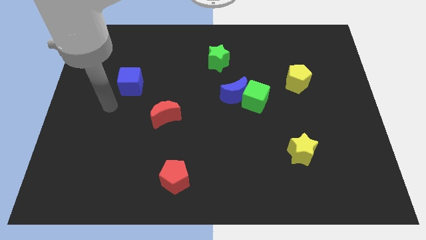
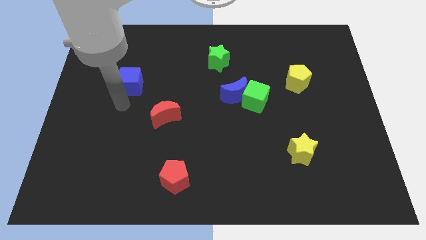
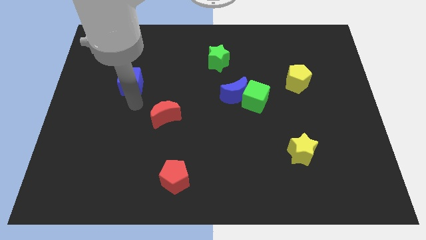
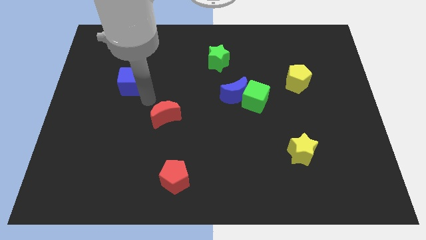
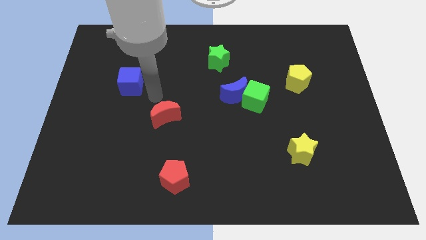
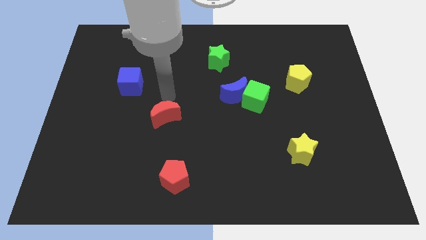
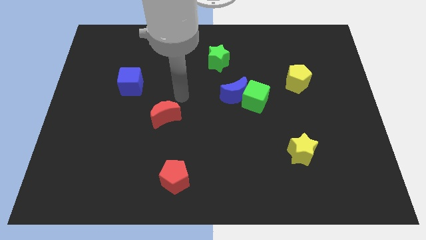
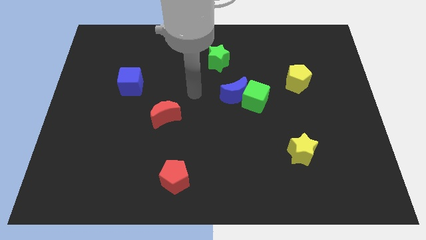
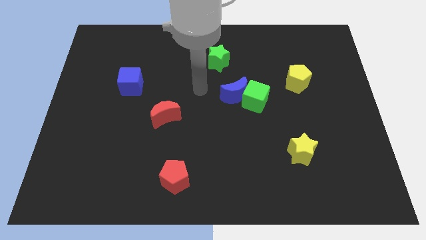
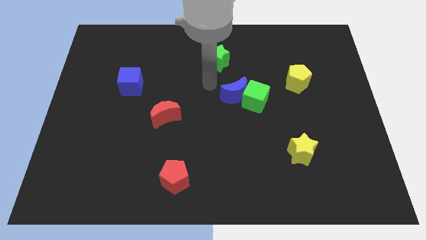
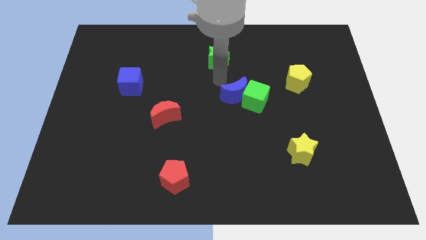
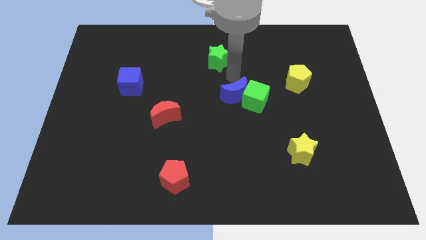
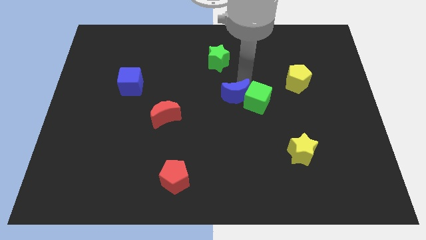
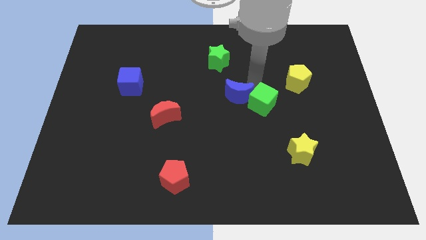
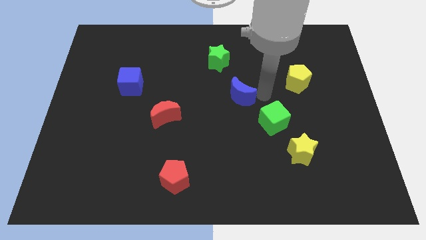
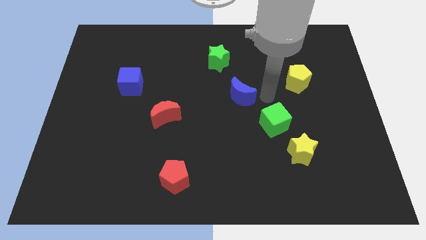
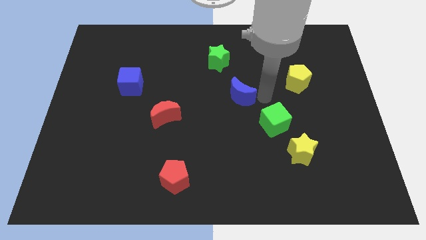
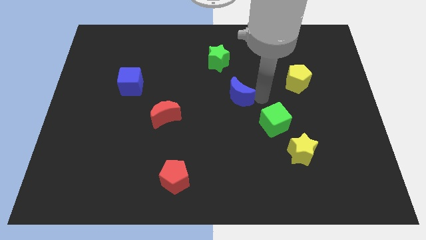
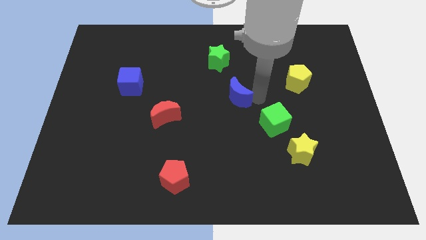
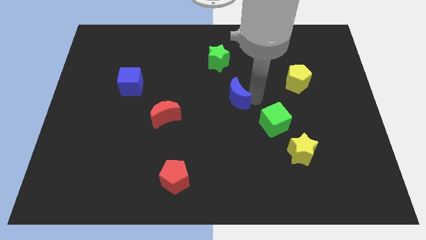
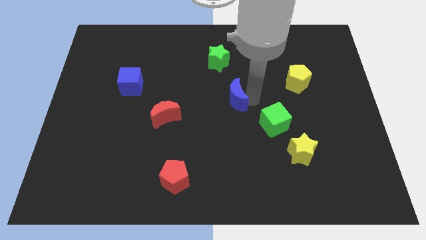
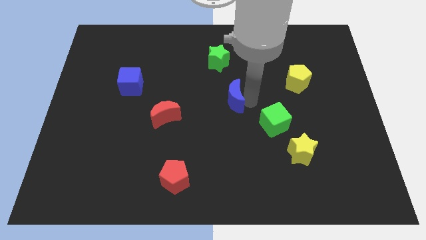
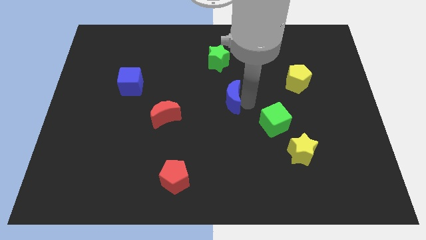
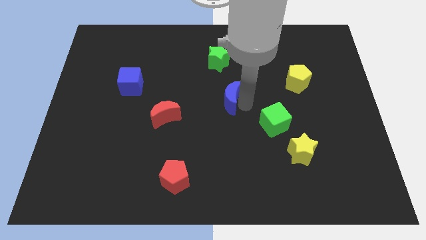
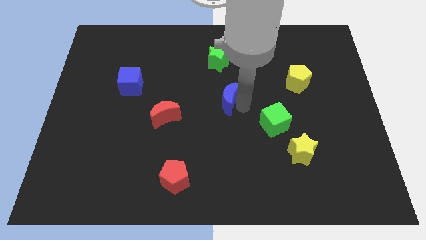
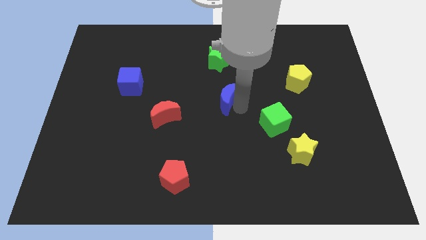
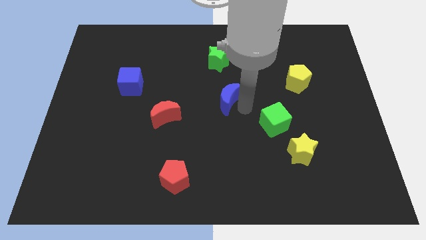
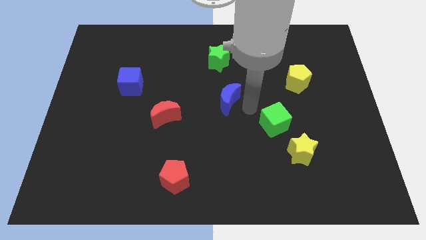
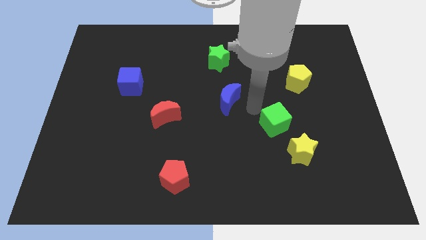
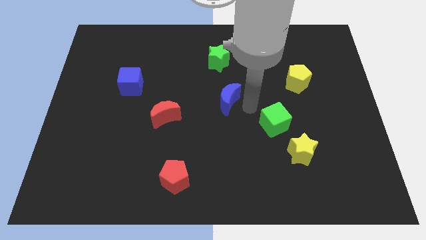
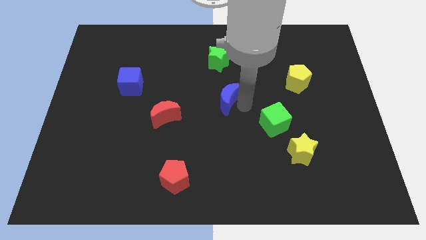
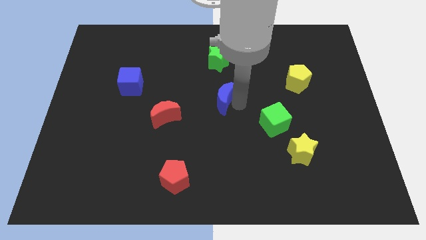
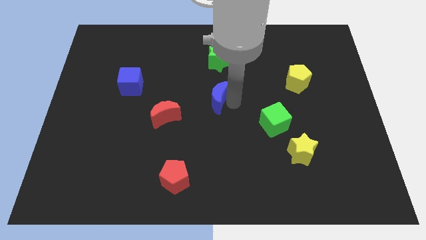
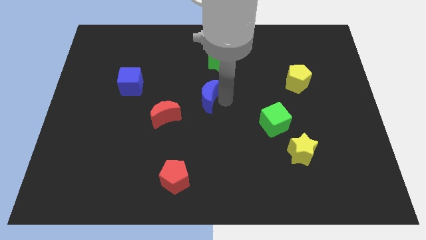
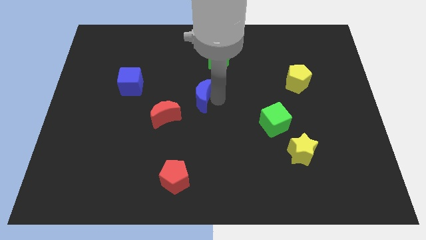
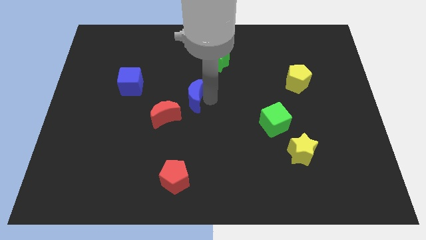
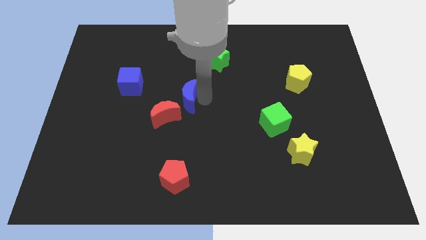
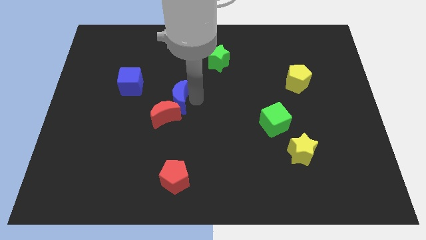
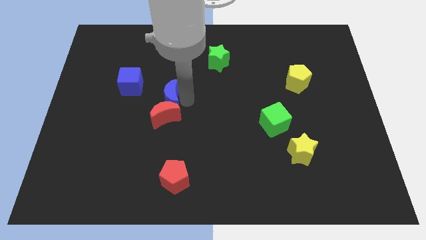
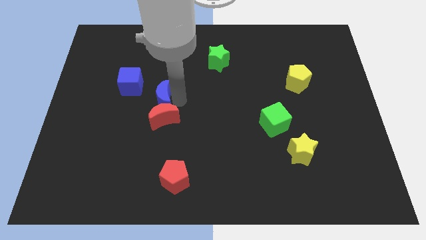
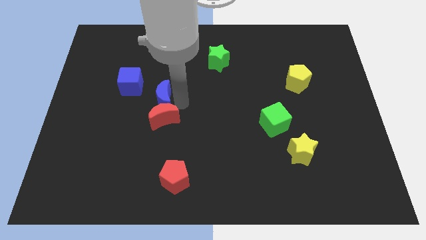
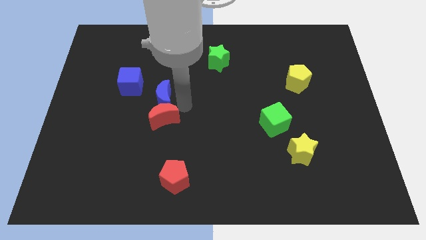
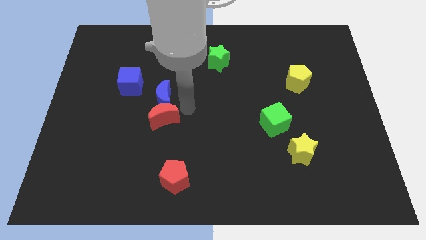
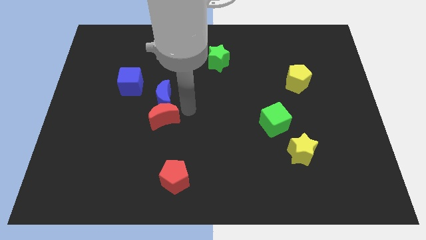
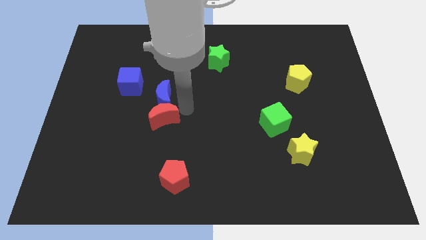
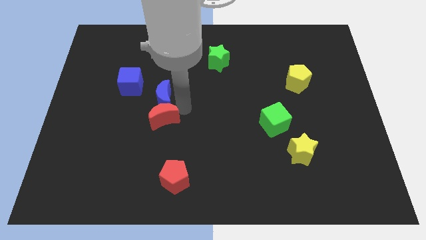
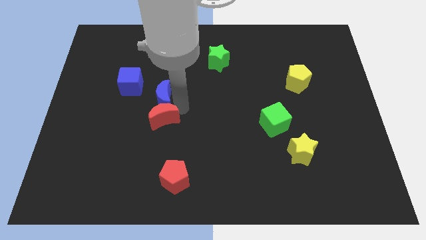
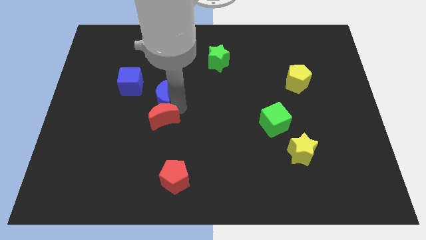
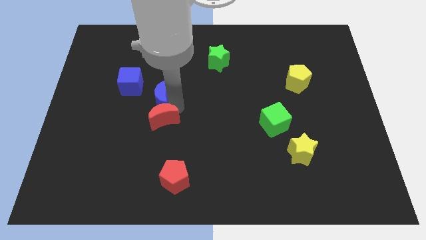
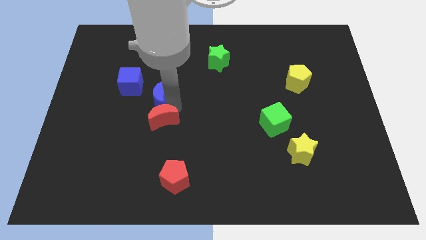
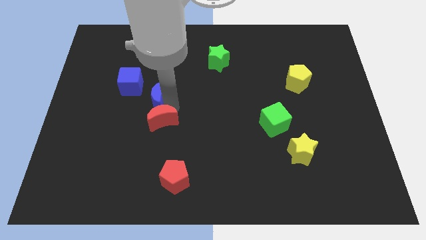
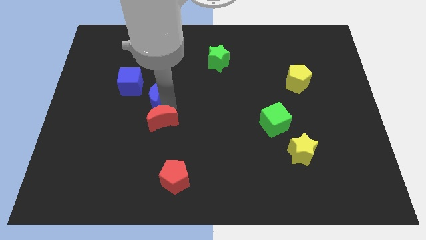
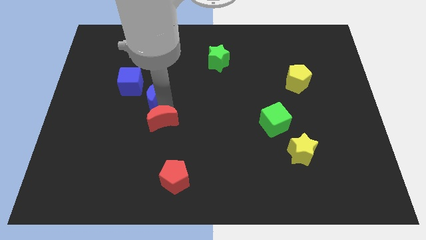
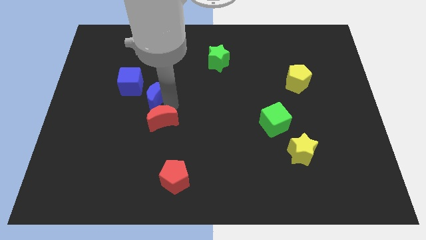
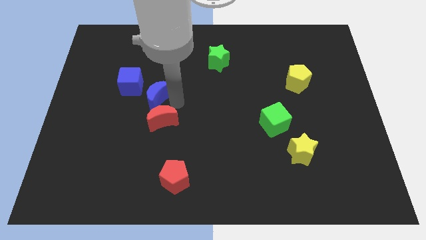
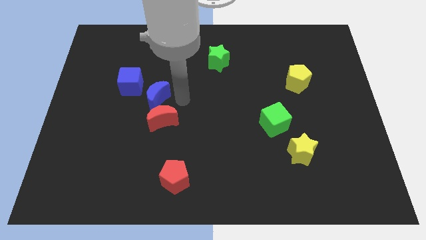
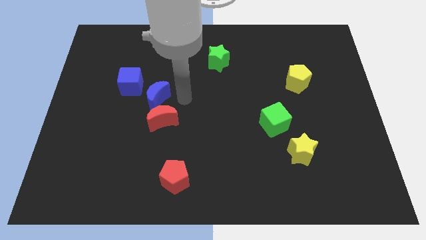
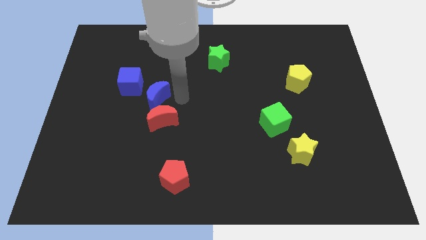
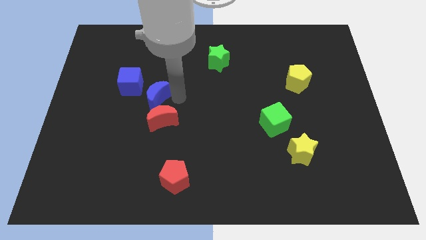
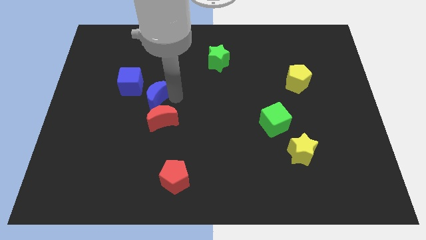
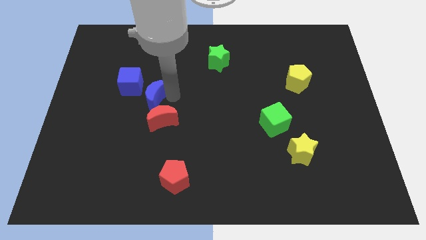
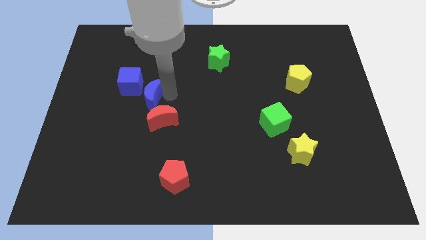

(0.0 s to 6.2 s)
push the blue moon to the left

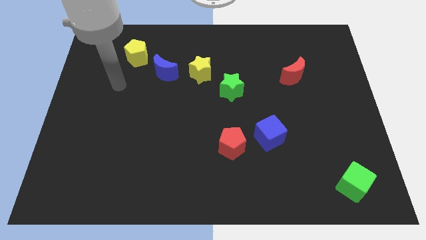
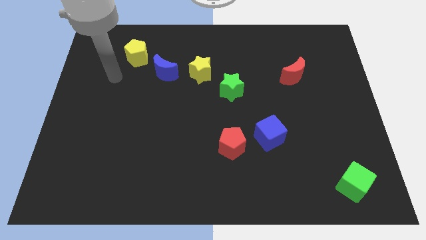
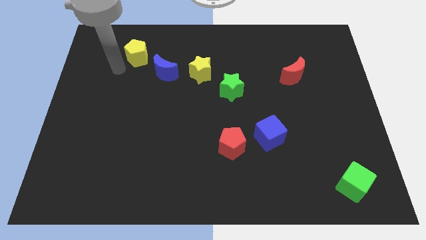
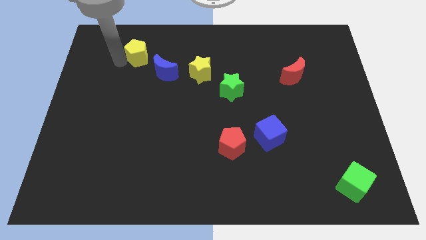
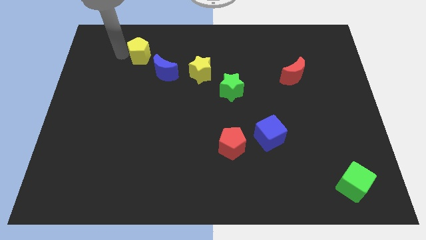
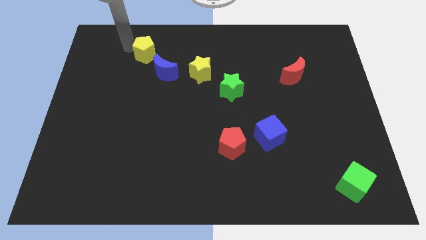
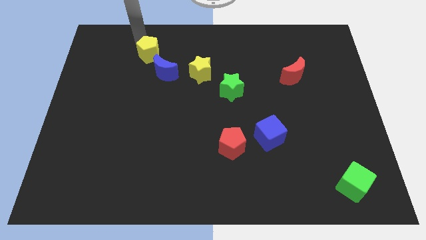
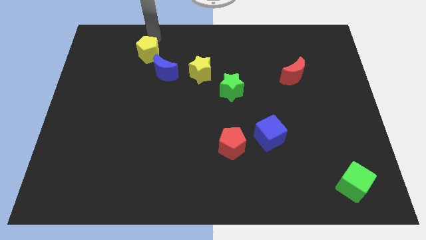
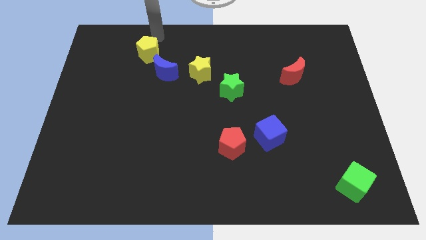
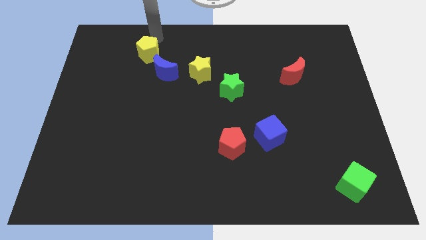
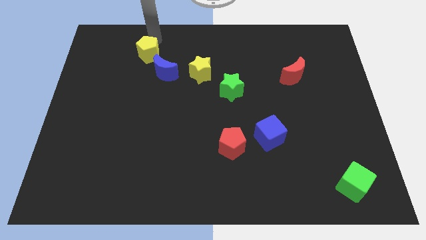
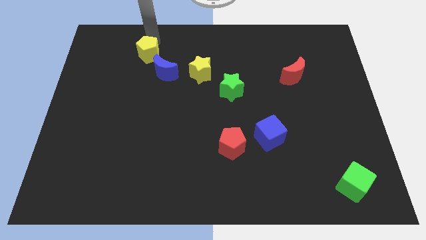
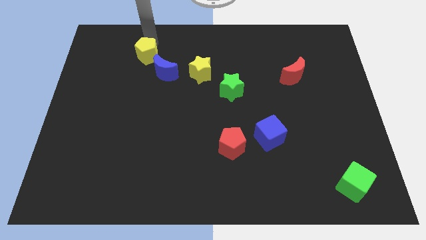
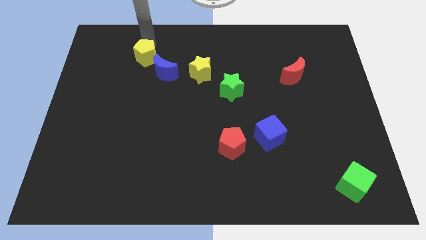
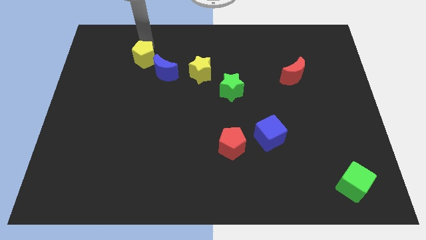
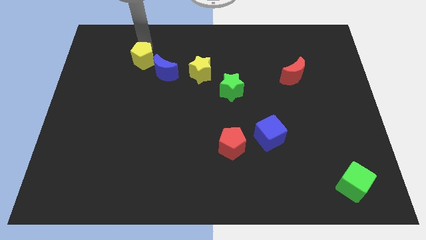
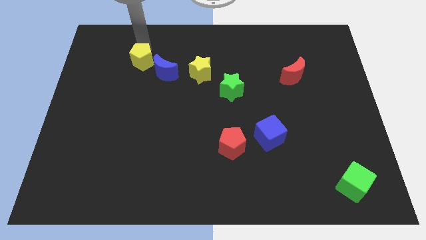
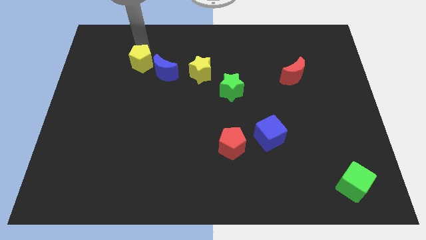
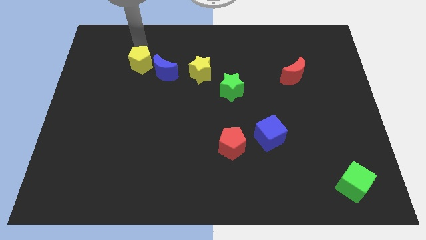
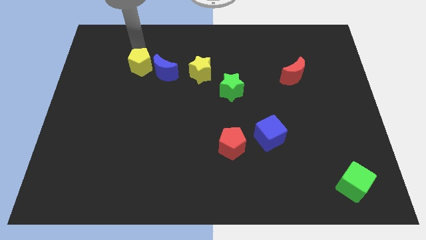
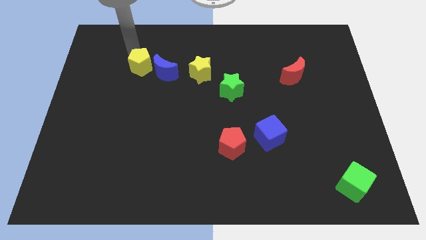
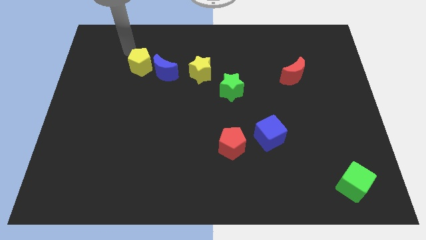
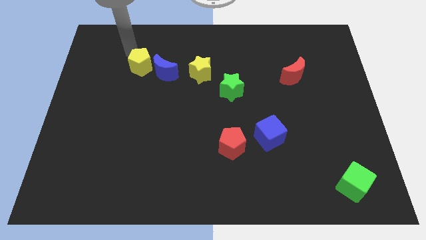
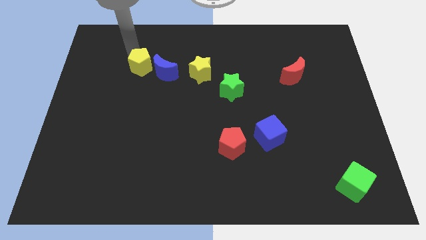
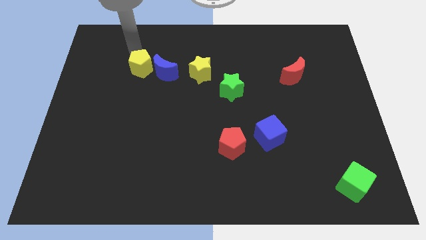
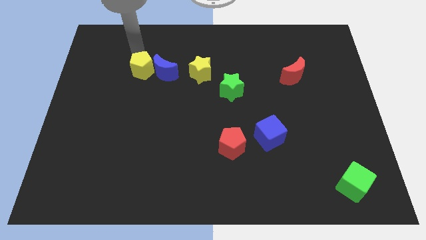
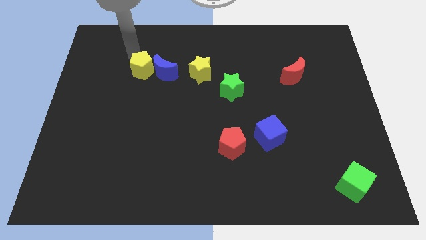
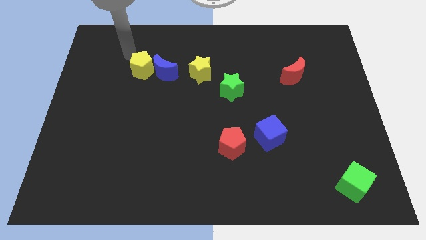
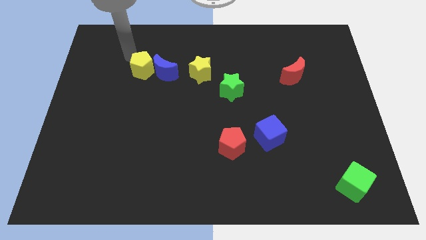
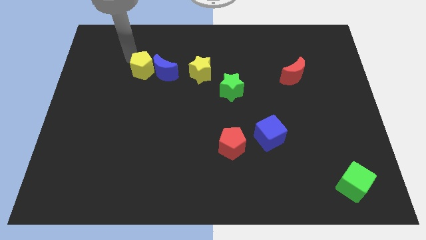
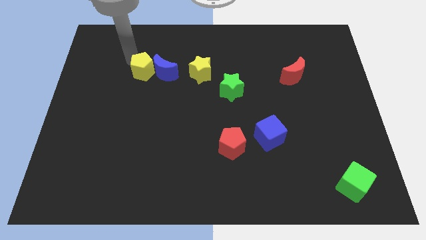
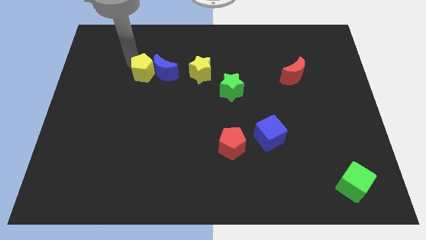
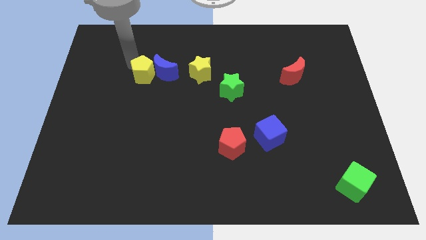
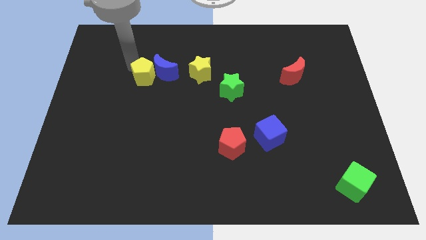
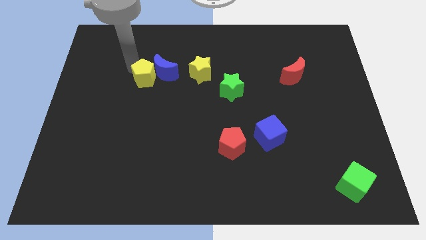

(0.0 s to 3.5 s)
slide the yellow pentagon down and to the right diagonally a bit
